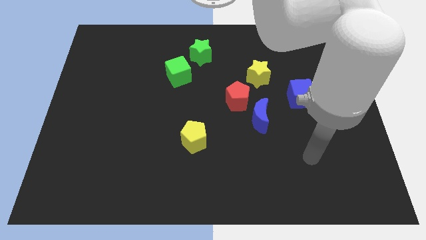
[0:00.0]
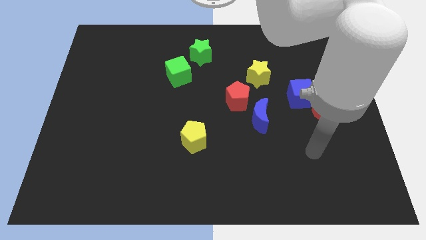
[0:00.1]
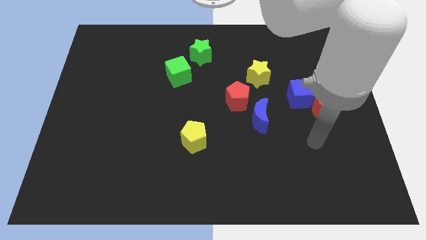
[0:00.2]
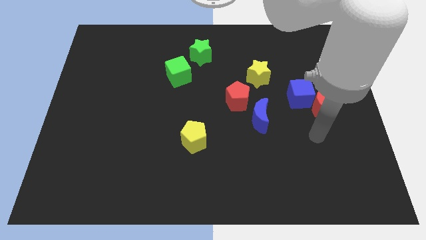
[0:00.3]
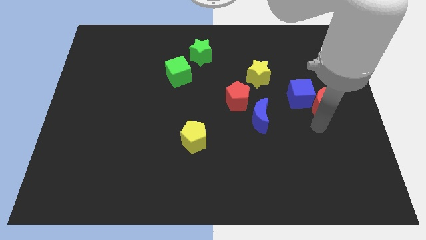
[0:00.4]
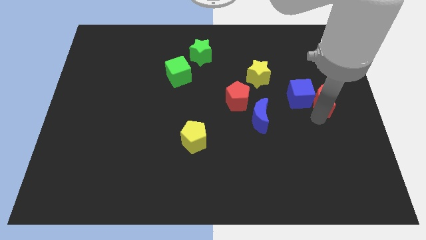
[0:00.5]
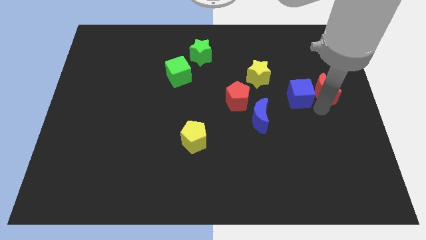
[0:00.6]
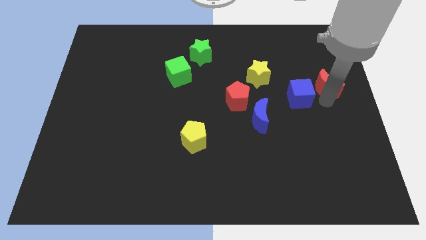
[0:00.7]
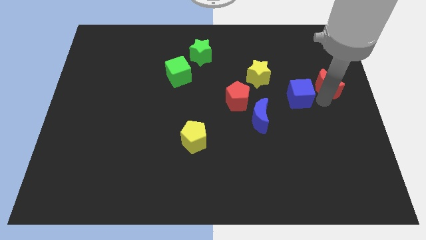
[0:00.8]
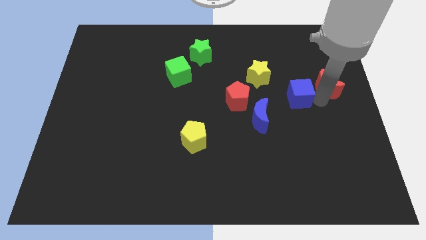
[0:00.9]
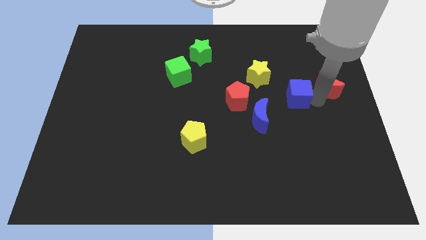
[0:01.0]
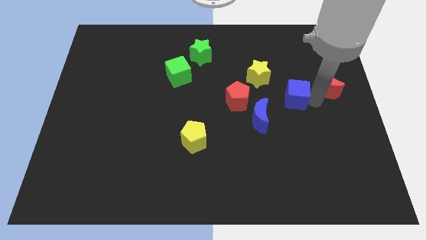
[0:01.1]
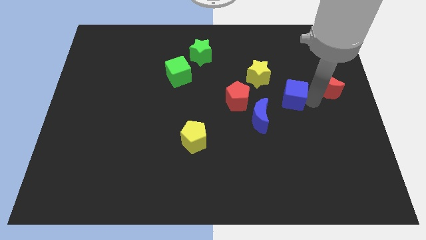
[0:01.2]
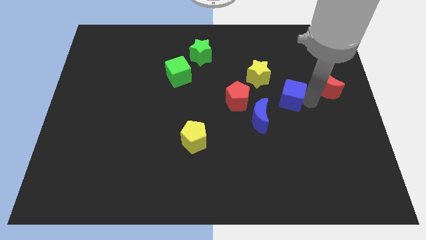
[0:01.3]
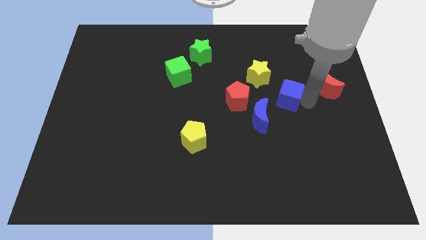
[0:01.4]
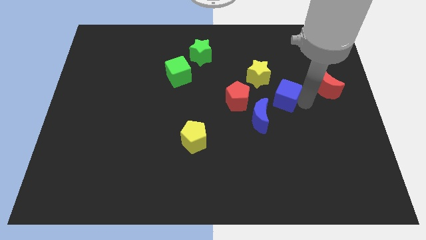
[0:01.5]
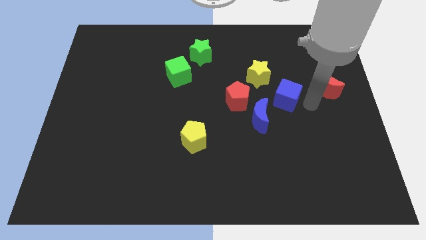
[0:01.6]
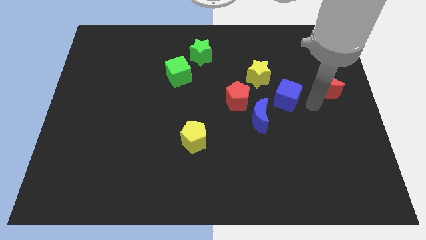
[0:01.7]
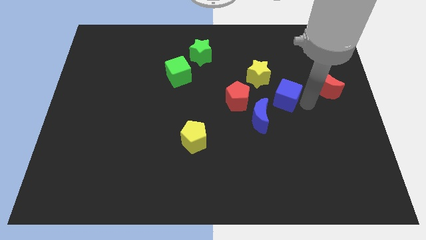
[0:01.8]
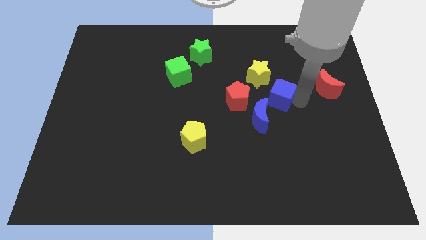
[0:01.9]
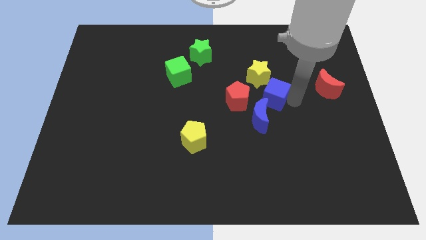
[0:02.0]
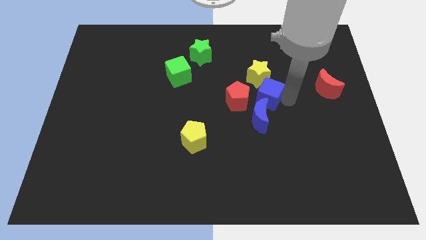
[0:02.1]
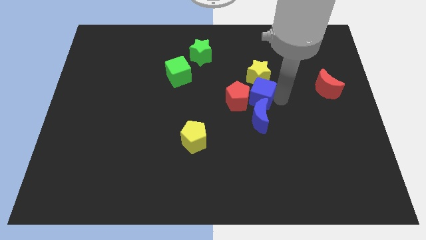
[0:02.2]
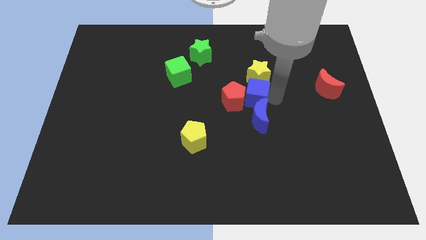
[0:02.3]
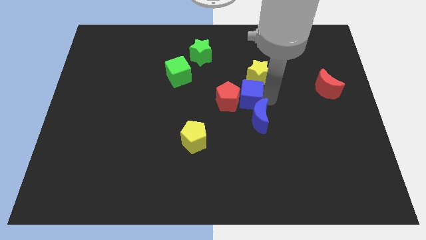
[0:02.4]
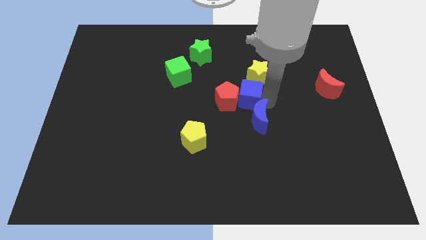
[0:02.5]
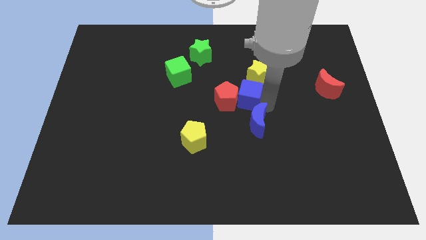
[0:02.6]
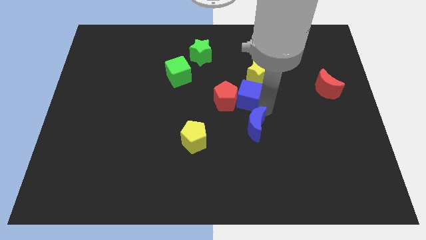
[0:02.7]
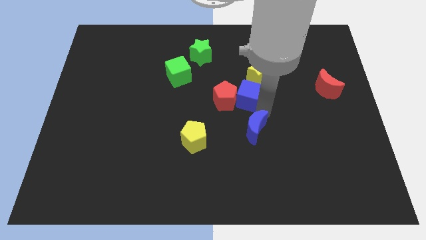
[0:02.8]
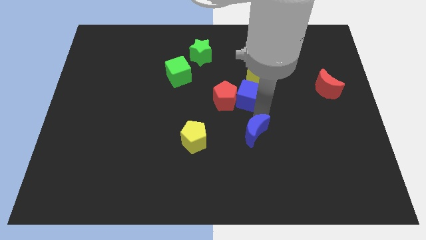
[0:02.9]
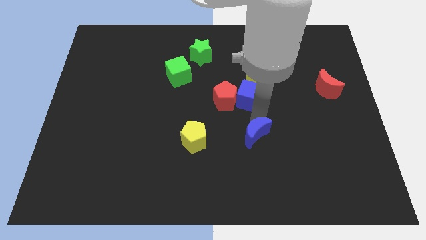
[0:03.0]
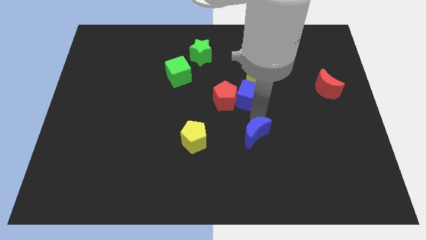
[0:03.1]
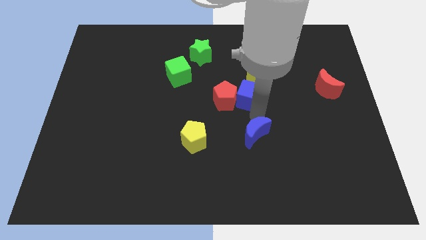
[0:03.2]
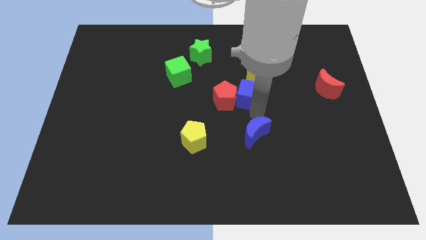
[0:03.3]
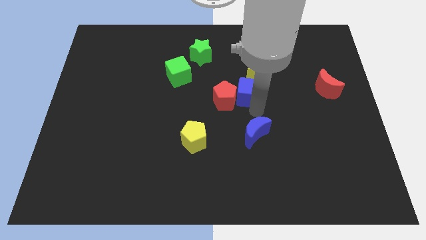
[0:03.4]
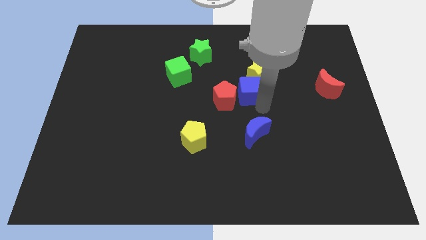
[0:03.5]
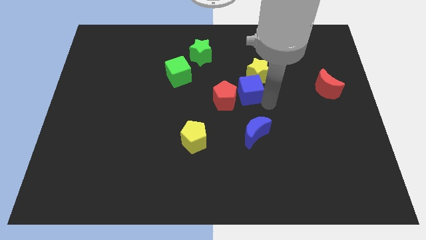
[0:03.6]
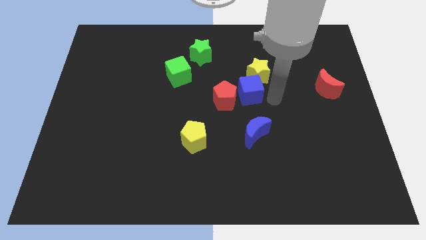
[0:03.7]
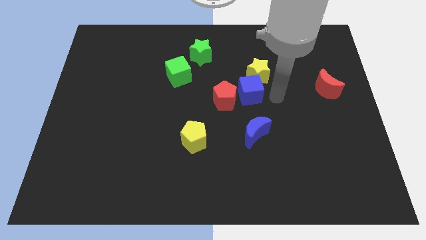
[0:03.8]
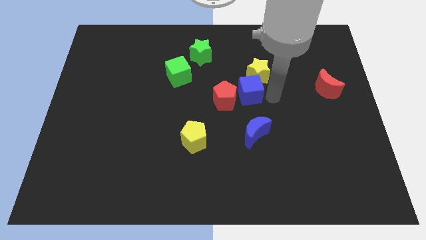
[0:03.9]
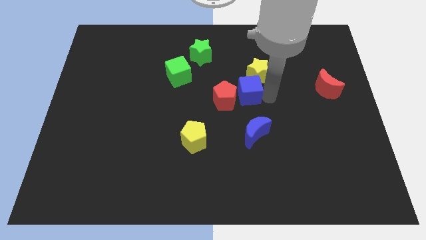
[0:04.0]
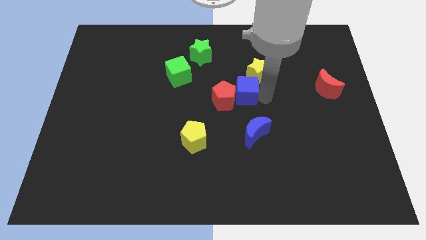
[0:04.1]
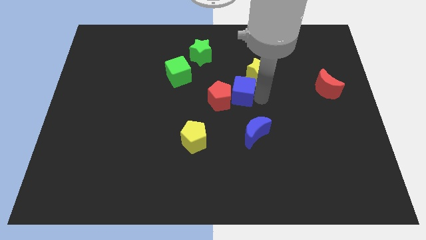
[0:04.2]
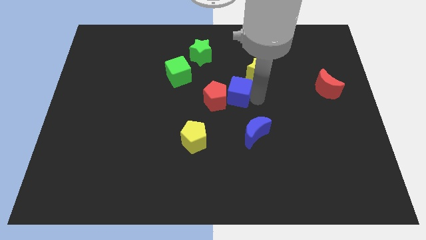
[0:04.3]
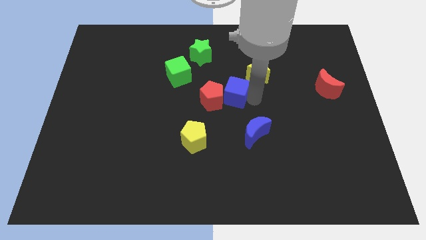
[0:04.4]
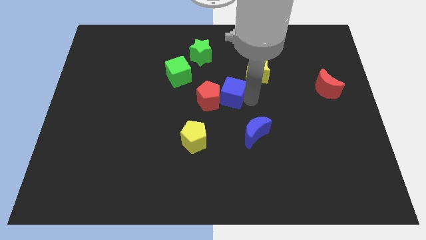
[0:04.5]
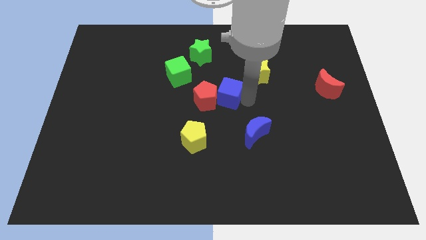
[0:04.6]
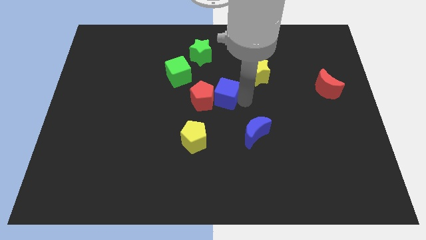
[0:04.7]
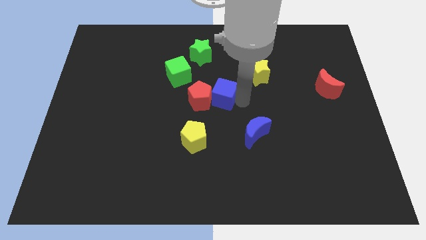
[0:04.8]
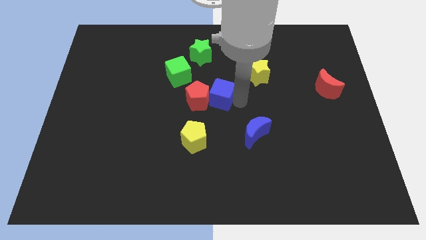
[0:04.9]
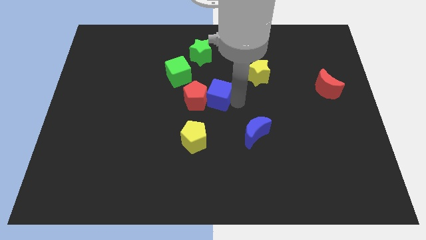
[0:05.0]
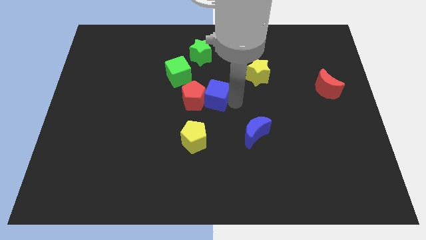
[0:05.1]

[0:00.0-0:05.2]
slide the blue cube left

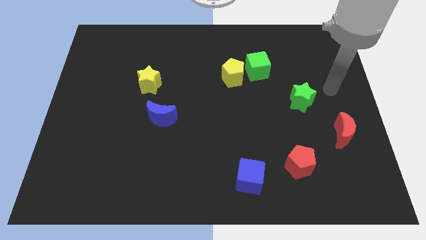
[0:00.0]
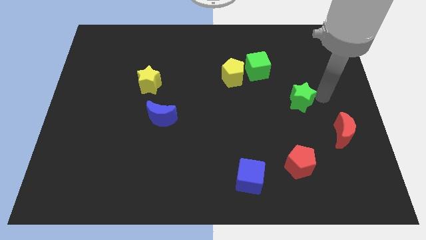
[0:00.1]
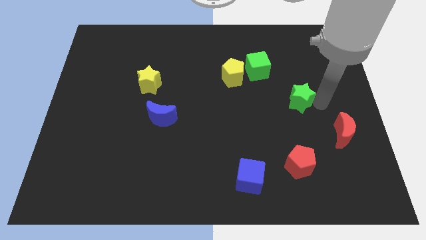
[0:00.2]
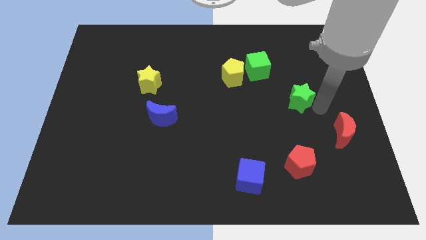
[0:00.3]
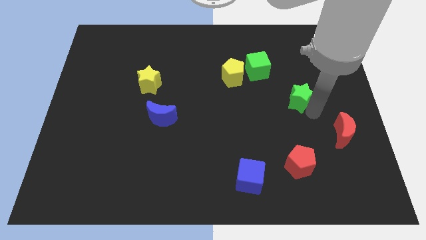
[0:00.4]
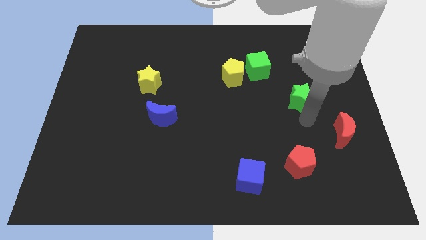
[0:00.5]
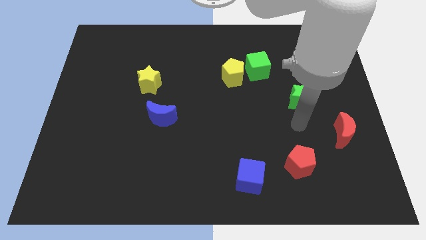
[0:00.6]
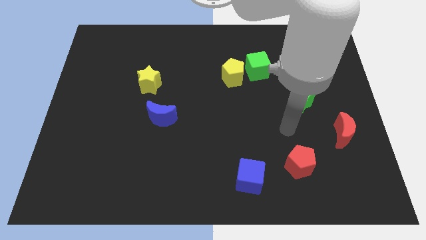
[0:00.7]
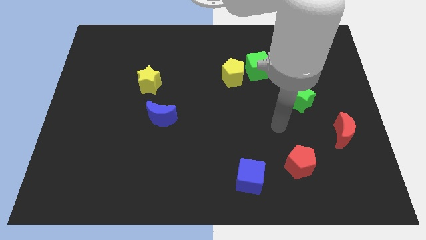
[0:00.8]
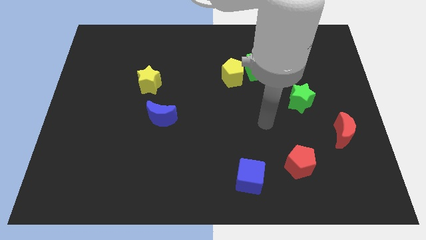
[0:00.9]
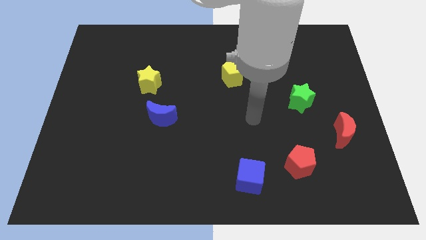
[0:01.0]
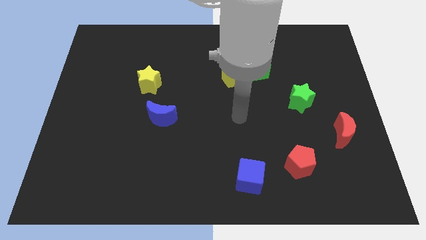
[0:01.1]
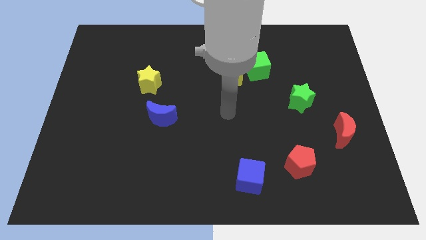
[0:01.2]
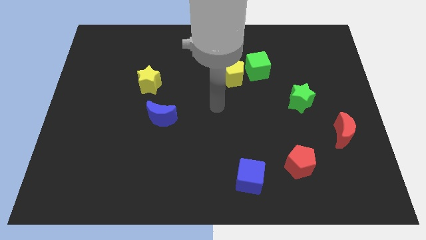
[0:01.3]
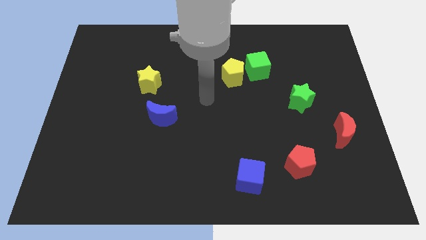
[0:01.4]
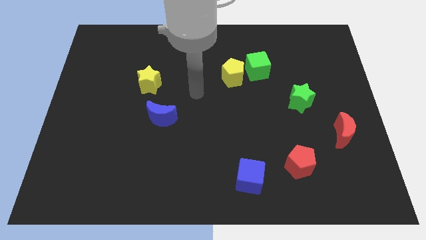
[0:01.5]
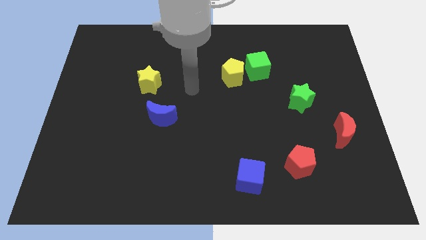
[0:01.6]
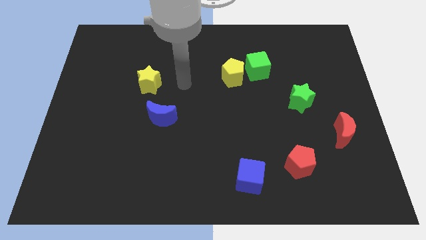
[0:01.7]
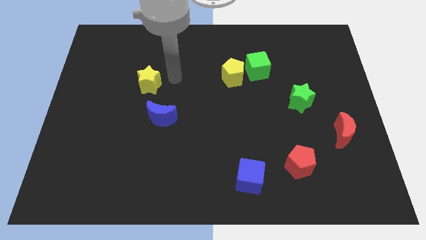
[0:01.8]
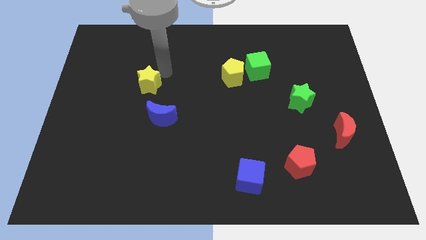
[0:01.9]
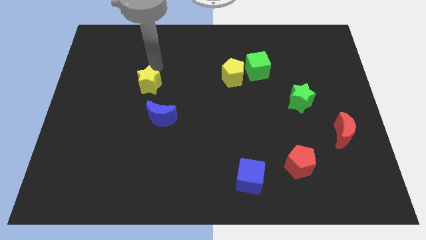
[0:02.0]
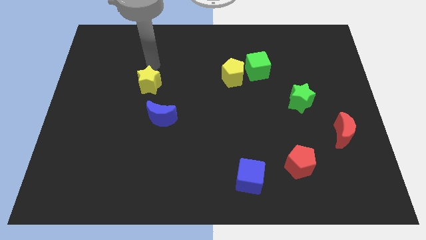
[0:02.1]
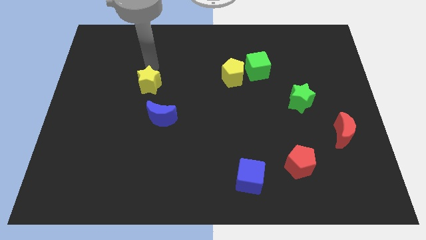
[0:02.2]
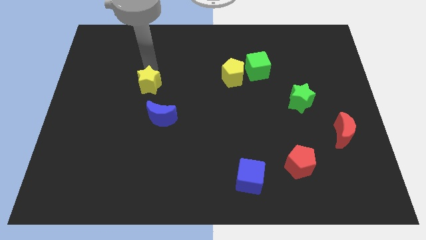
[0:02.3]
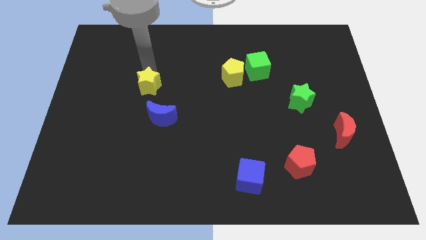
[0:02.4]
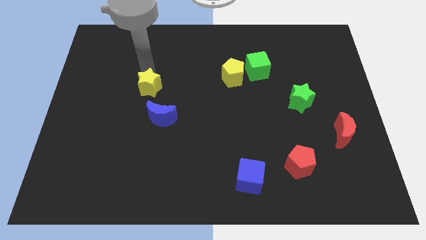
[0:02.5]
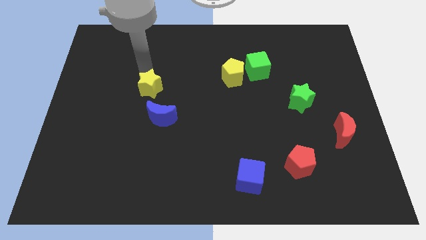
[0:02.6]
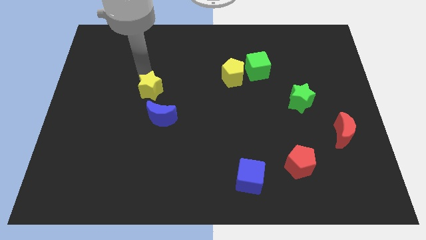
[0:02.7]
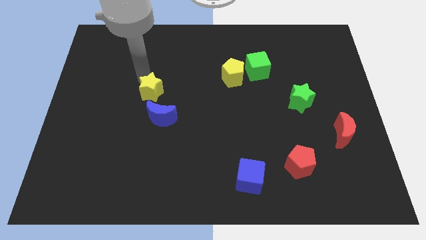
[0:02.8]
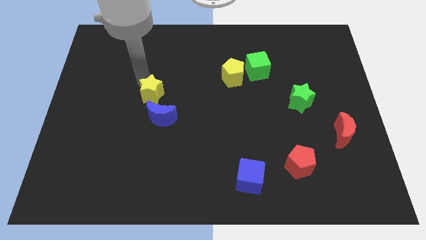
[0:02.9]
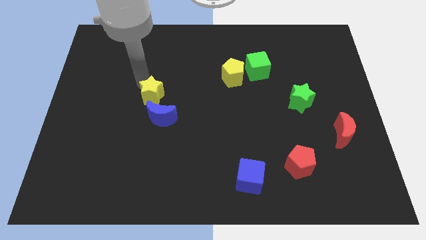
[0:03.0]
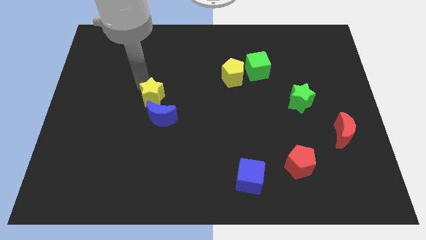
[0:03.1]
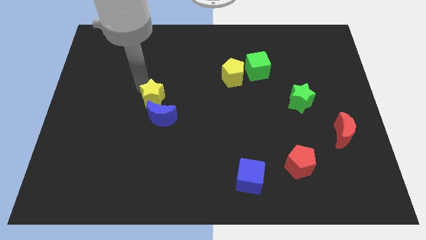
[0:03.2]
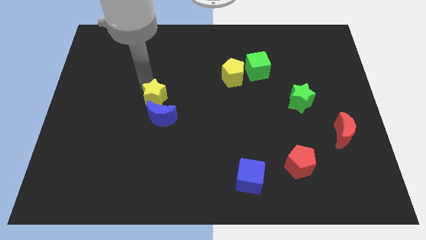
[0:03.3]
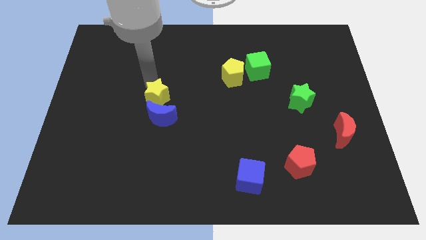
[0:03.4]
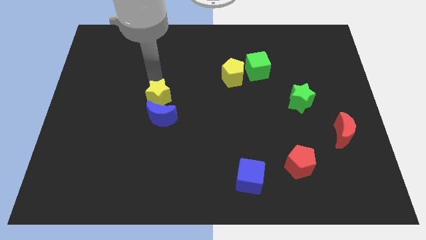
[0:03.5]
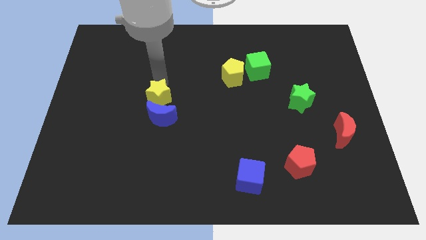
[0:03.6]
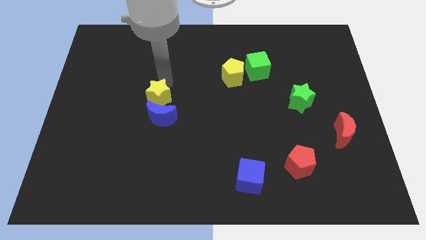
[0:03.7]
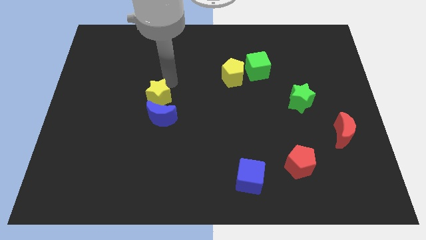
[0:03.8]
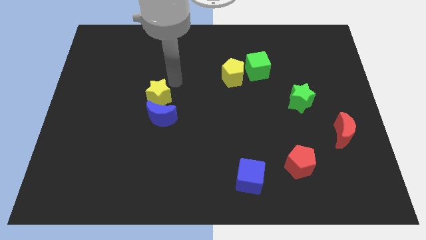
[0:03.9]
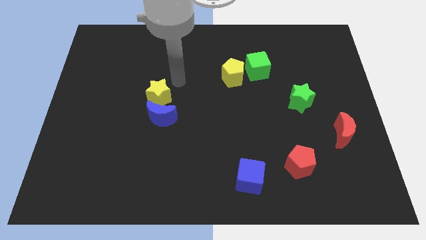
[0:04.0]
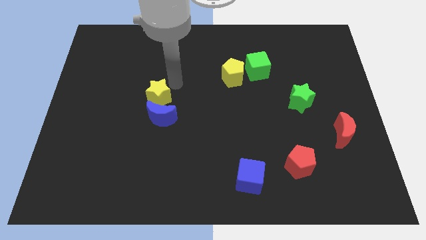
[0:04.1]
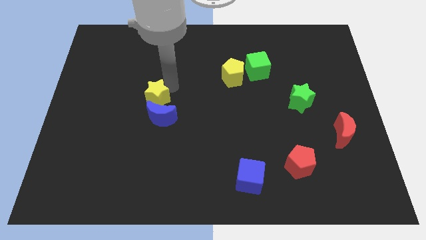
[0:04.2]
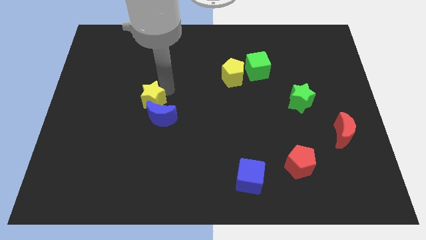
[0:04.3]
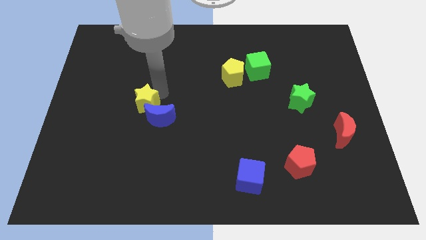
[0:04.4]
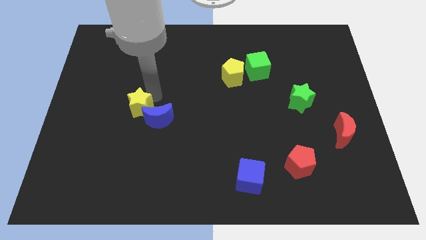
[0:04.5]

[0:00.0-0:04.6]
slide the yellow star a little down
